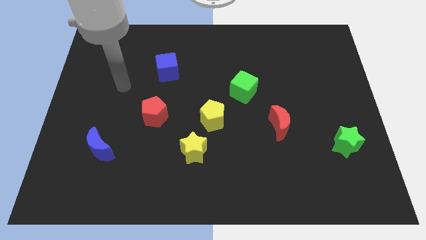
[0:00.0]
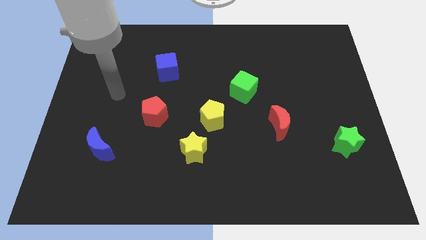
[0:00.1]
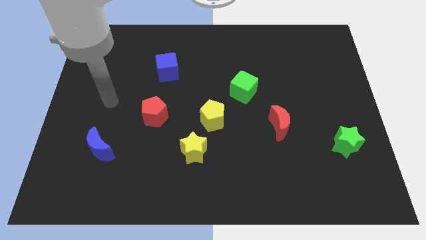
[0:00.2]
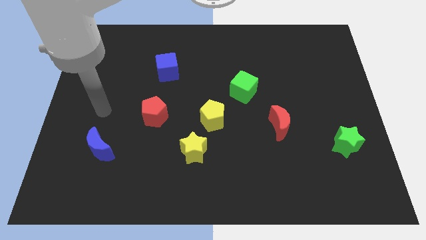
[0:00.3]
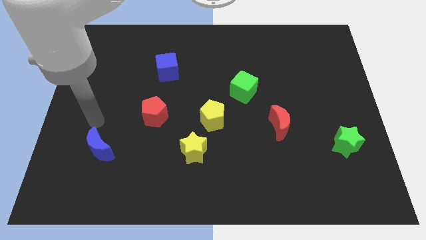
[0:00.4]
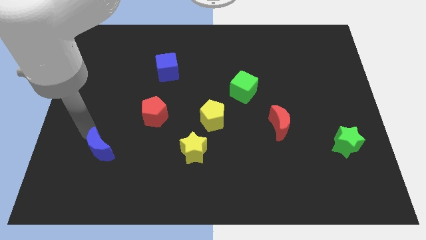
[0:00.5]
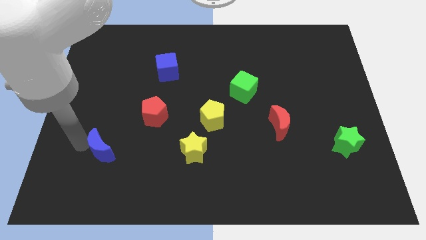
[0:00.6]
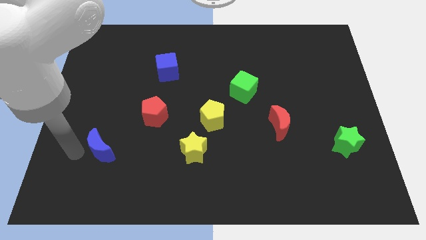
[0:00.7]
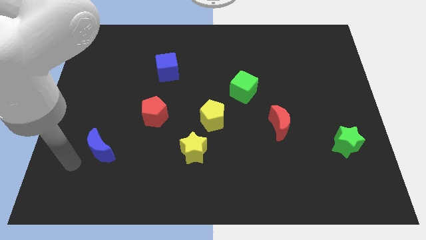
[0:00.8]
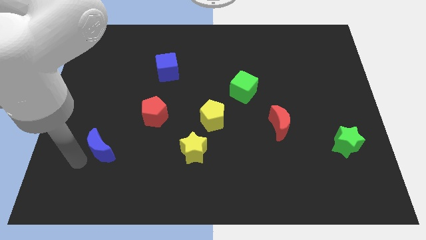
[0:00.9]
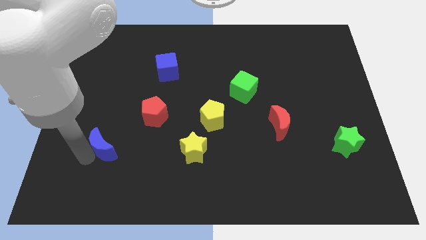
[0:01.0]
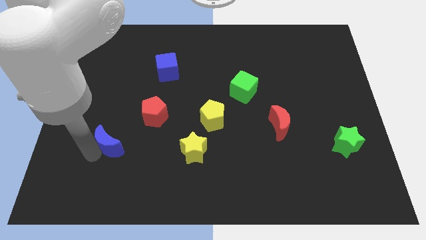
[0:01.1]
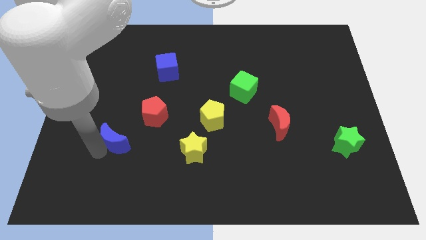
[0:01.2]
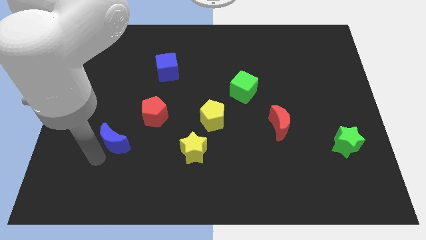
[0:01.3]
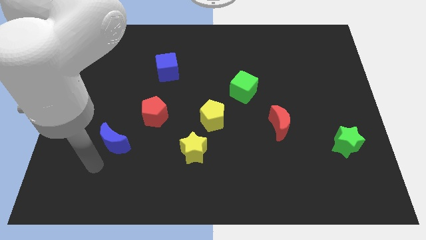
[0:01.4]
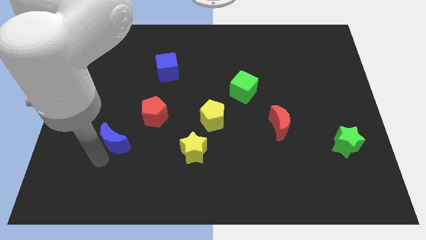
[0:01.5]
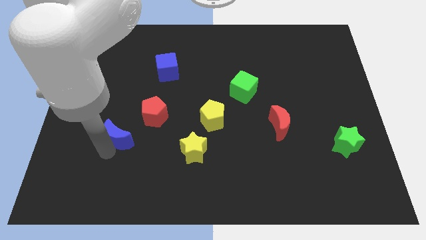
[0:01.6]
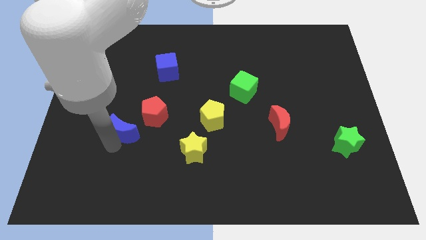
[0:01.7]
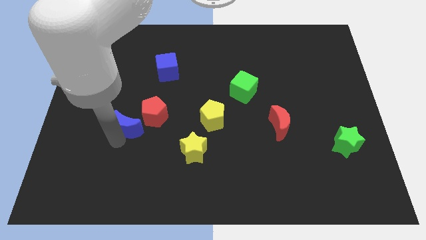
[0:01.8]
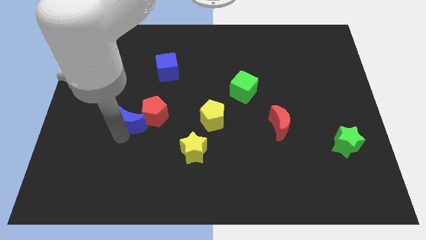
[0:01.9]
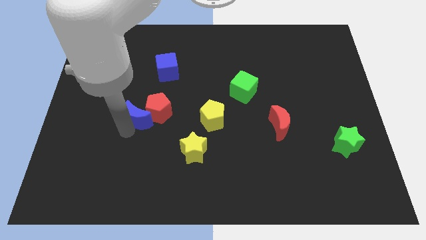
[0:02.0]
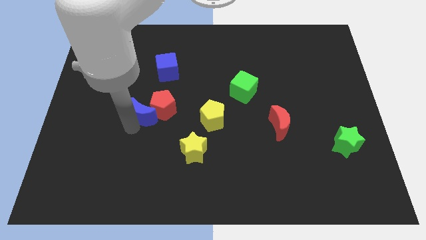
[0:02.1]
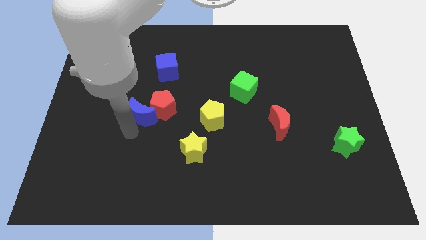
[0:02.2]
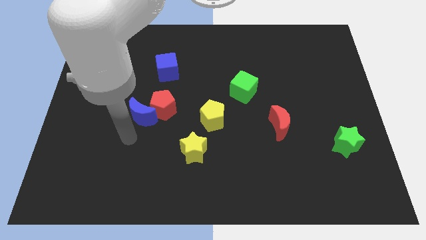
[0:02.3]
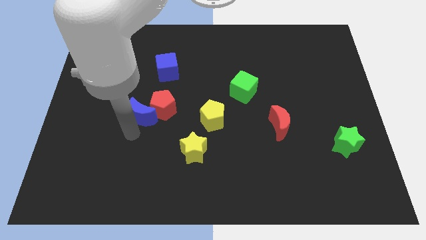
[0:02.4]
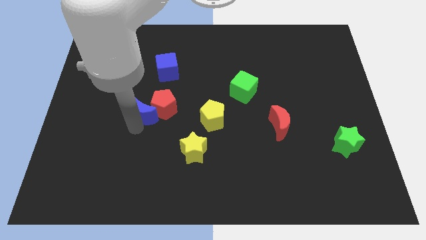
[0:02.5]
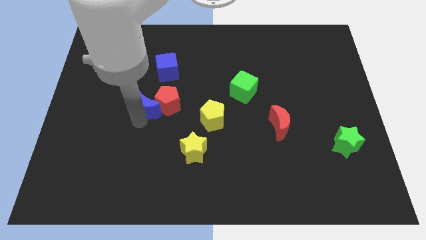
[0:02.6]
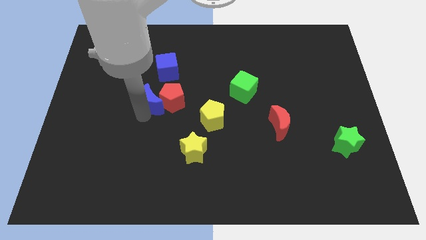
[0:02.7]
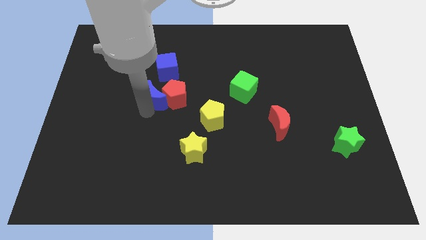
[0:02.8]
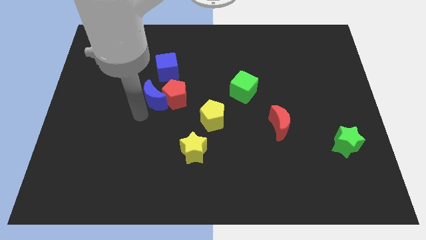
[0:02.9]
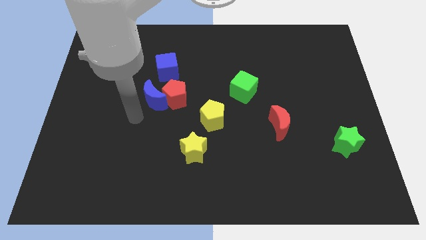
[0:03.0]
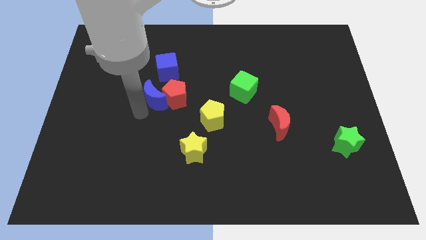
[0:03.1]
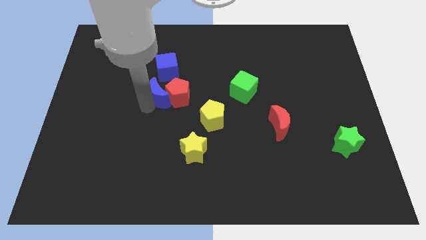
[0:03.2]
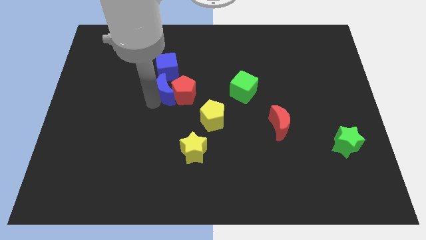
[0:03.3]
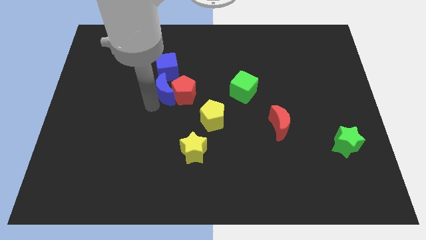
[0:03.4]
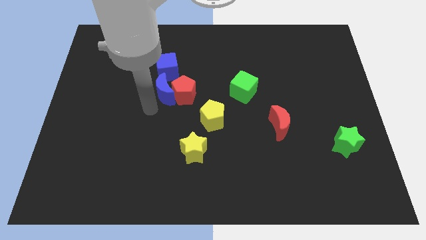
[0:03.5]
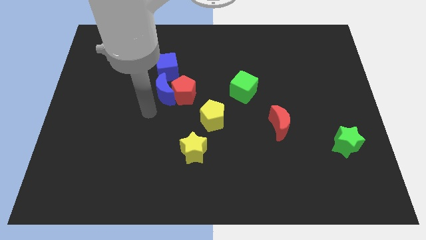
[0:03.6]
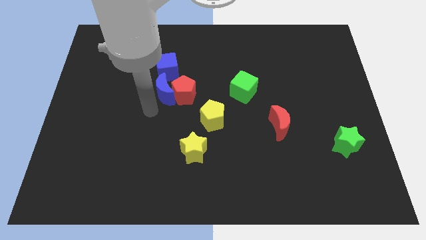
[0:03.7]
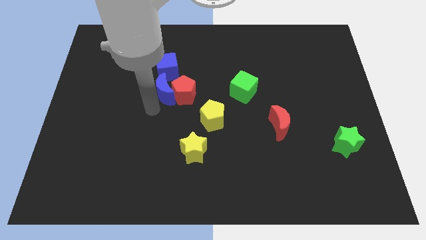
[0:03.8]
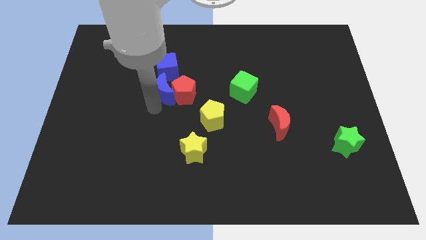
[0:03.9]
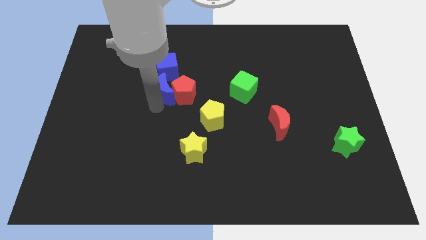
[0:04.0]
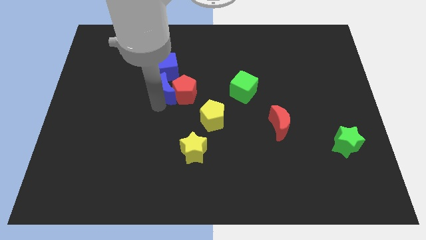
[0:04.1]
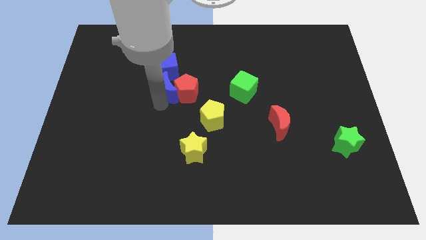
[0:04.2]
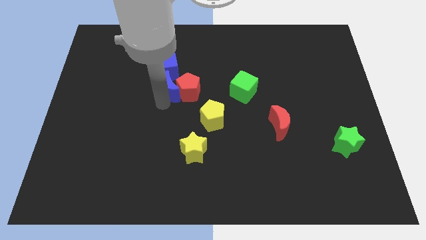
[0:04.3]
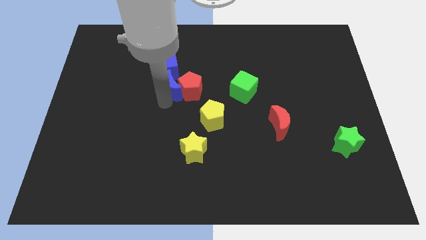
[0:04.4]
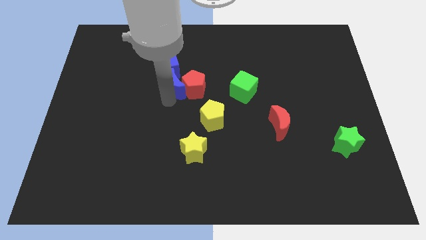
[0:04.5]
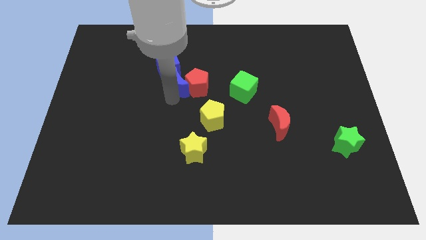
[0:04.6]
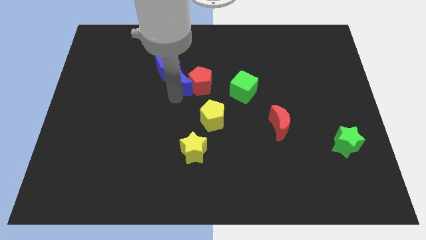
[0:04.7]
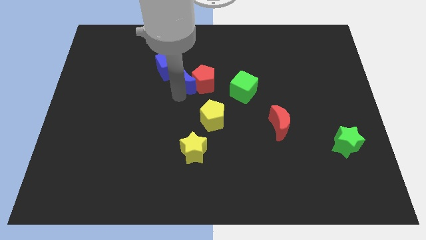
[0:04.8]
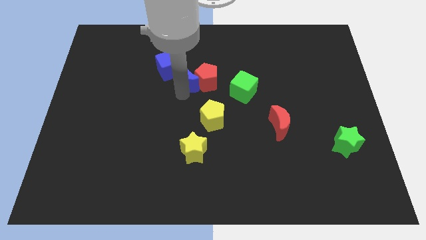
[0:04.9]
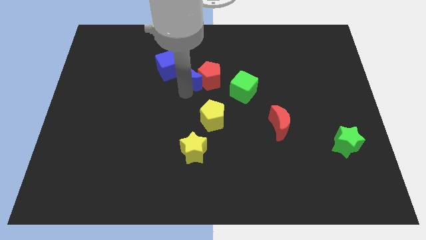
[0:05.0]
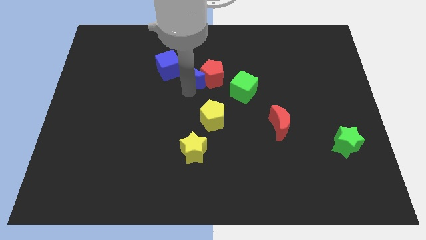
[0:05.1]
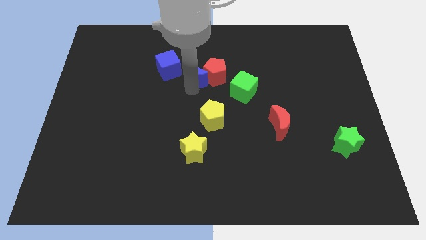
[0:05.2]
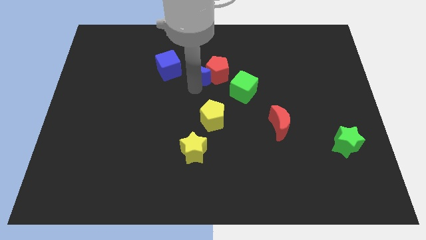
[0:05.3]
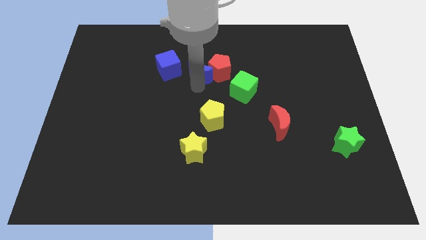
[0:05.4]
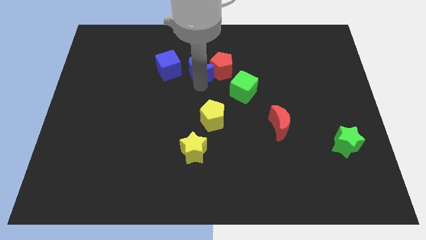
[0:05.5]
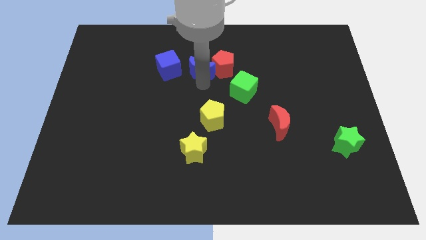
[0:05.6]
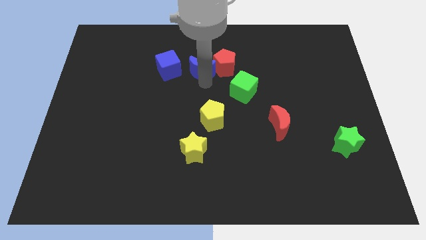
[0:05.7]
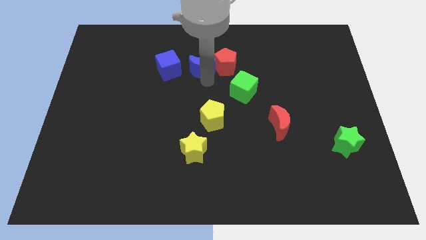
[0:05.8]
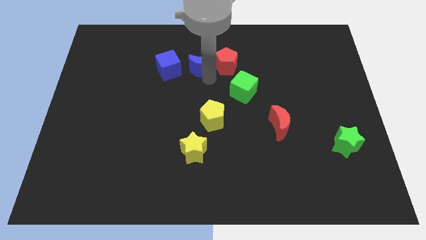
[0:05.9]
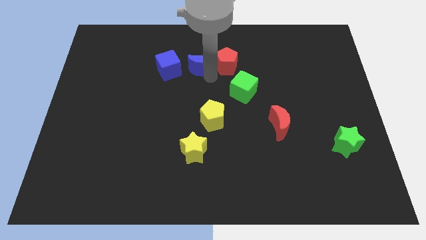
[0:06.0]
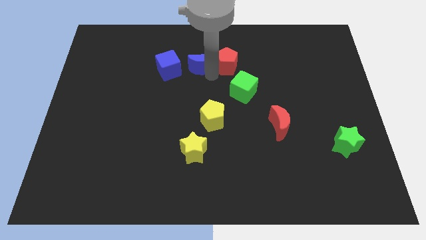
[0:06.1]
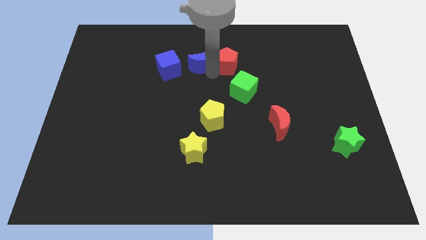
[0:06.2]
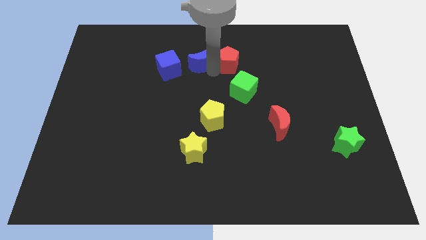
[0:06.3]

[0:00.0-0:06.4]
push the blue moon to the top right of the blue cube
